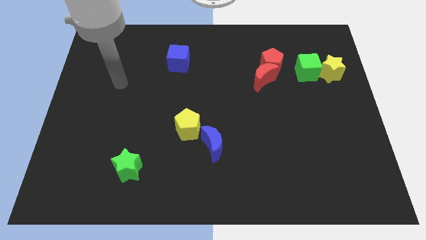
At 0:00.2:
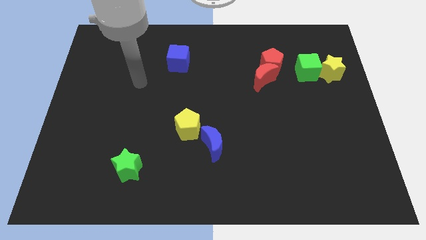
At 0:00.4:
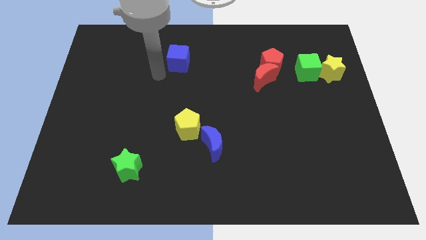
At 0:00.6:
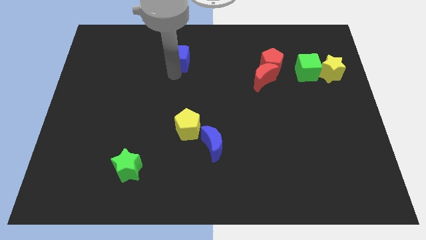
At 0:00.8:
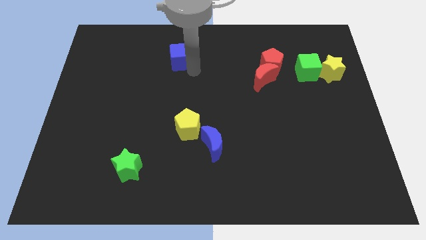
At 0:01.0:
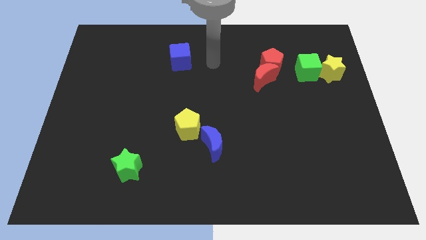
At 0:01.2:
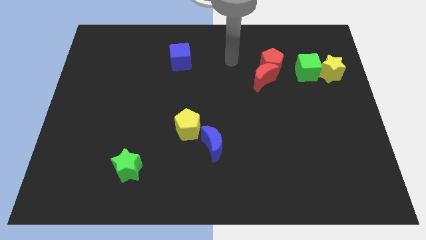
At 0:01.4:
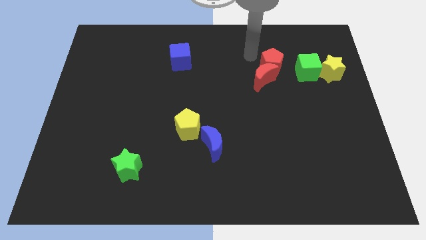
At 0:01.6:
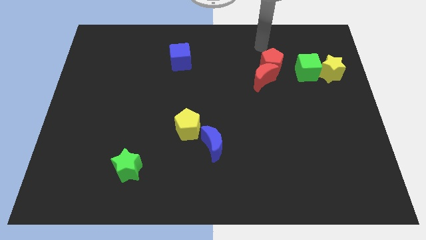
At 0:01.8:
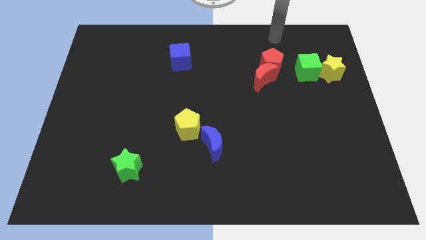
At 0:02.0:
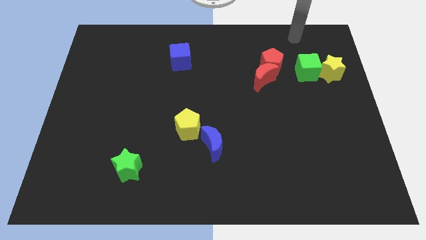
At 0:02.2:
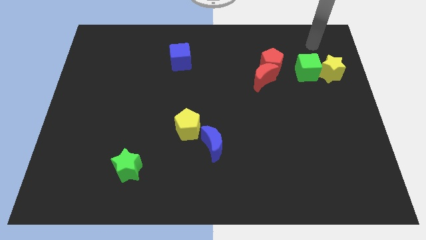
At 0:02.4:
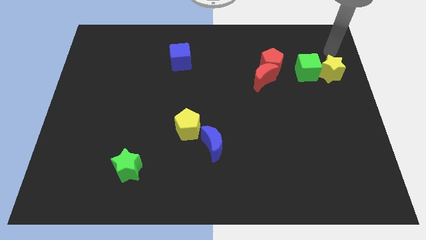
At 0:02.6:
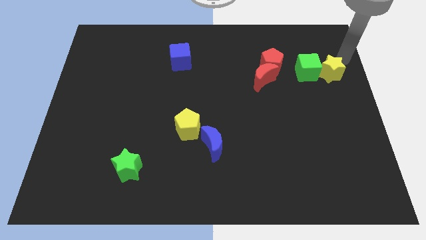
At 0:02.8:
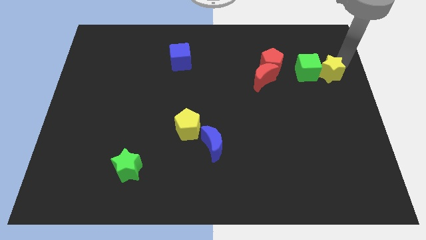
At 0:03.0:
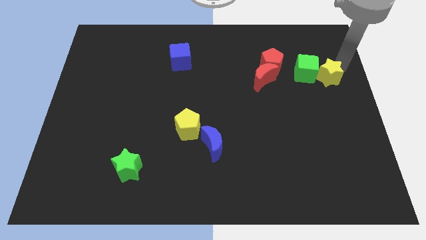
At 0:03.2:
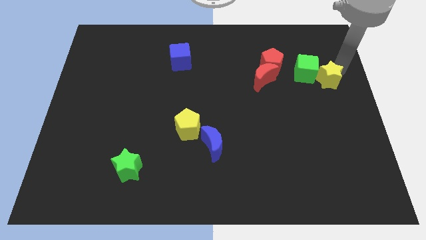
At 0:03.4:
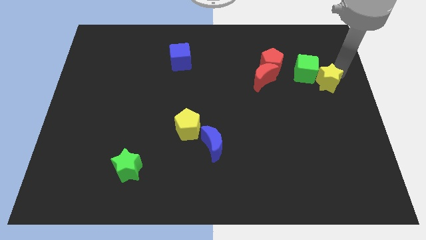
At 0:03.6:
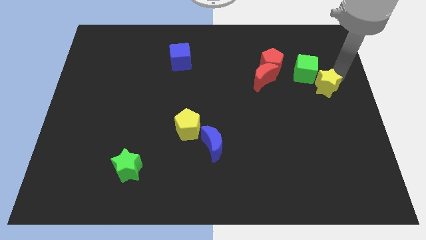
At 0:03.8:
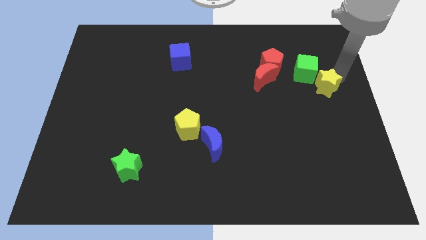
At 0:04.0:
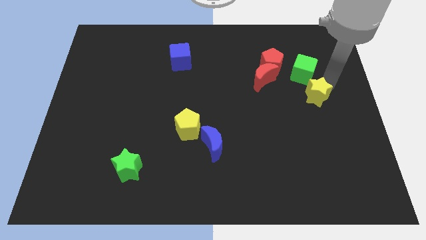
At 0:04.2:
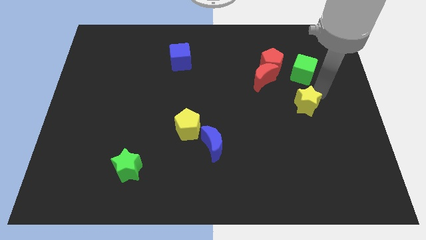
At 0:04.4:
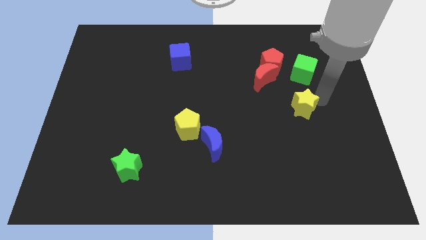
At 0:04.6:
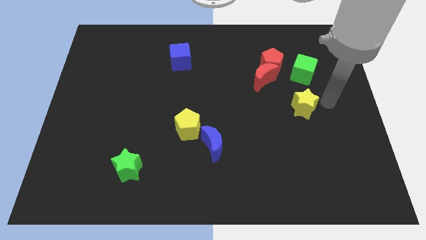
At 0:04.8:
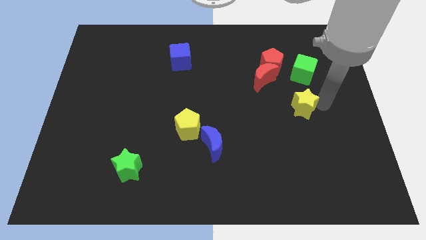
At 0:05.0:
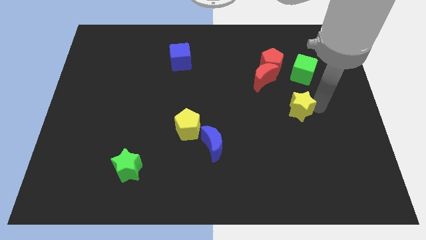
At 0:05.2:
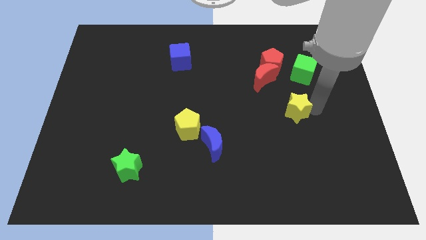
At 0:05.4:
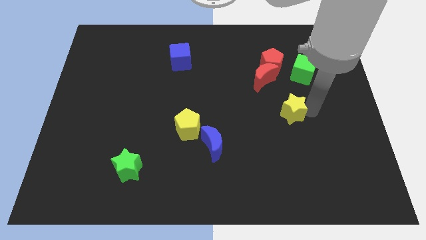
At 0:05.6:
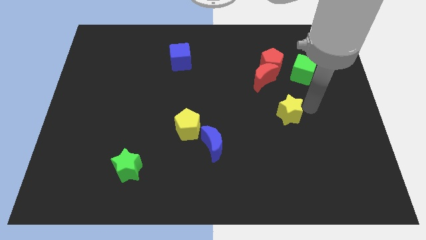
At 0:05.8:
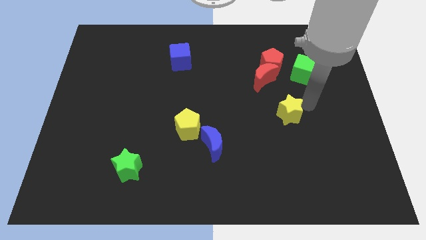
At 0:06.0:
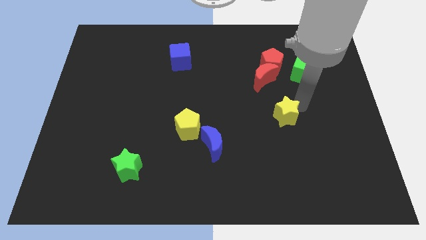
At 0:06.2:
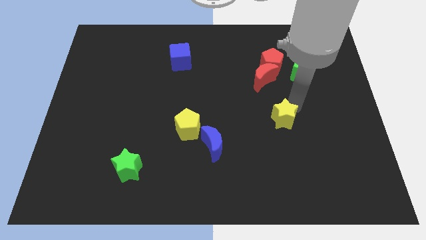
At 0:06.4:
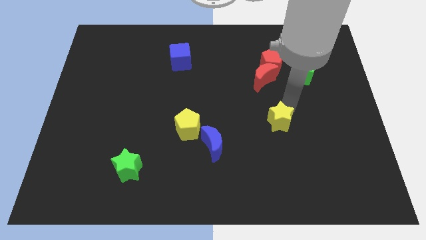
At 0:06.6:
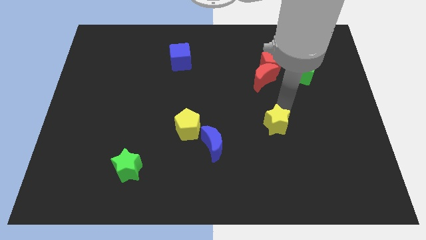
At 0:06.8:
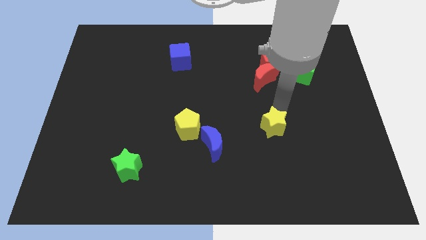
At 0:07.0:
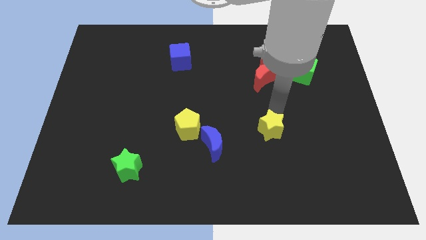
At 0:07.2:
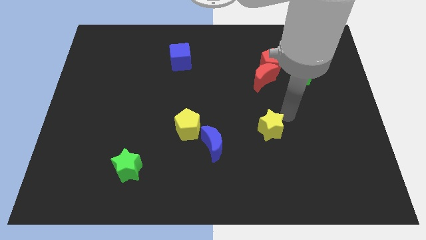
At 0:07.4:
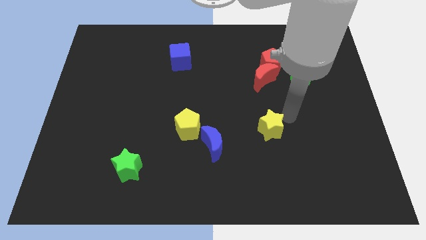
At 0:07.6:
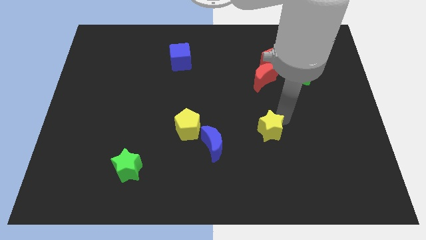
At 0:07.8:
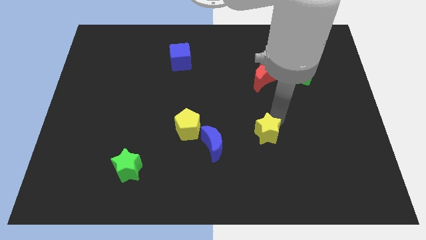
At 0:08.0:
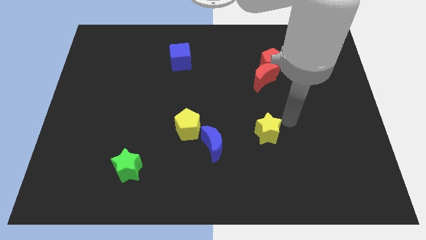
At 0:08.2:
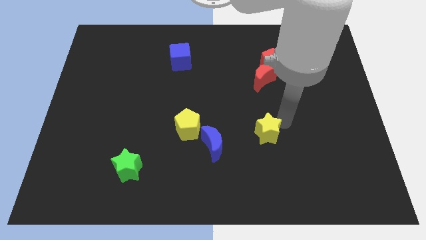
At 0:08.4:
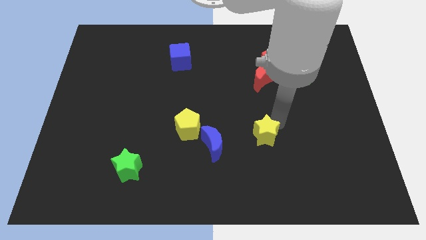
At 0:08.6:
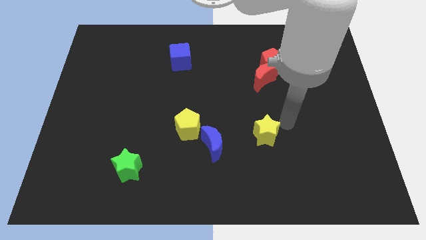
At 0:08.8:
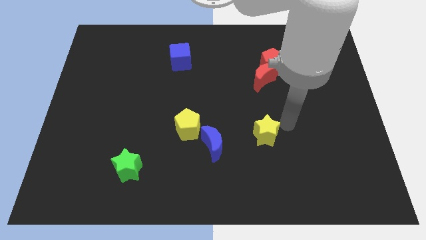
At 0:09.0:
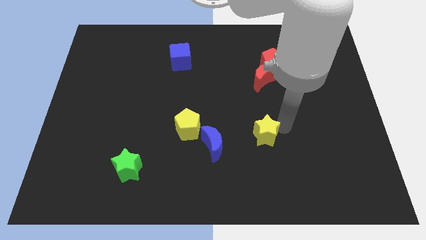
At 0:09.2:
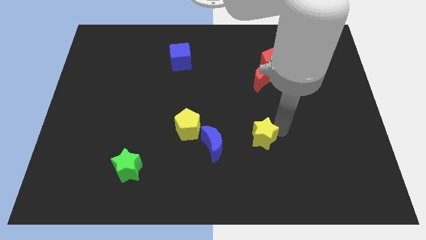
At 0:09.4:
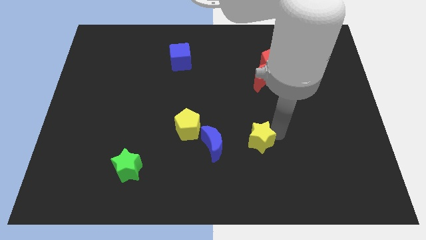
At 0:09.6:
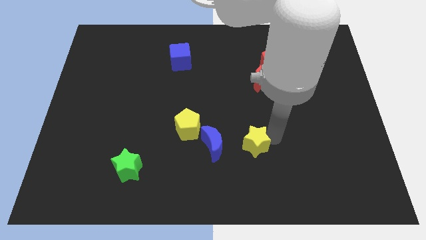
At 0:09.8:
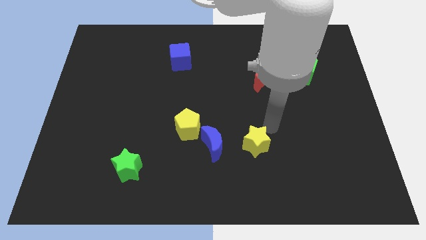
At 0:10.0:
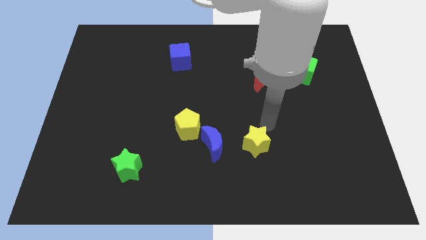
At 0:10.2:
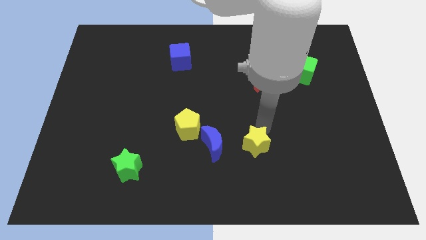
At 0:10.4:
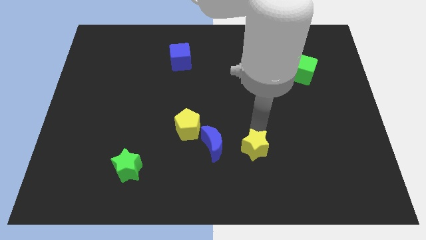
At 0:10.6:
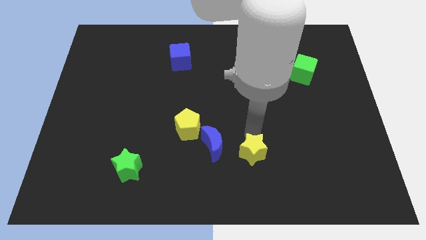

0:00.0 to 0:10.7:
put the yellow star to the bottom right side of the blue moon

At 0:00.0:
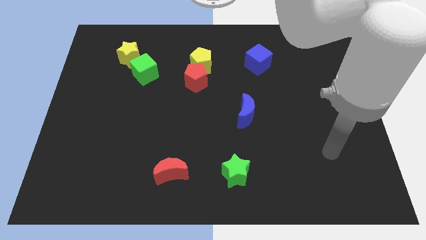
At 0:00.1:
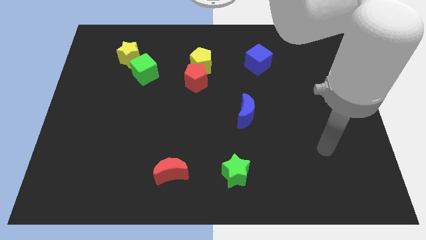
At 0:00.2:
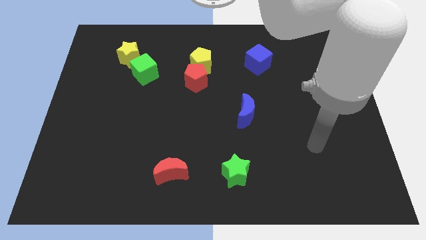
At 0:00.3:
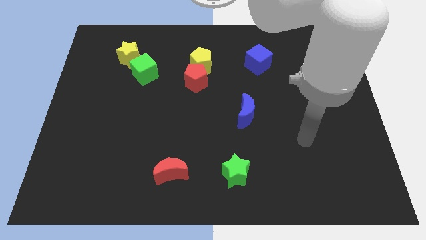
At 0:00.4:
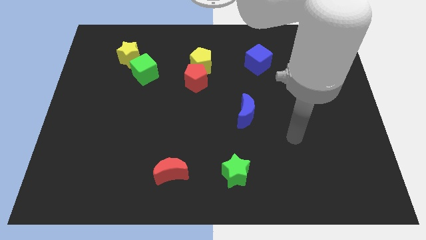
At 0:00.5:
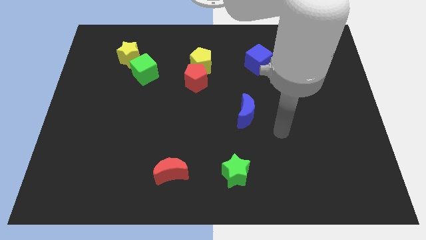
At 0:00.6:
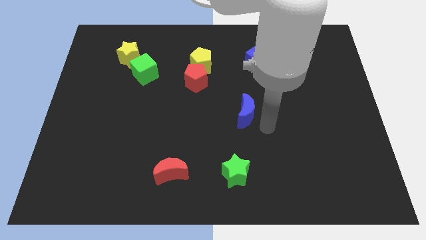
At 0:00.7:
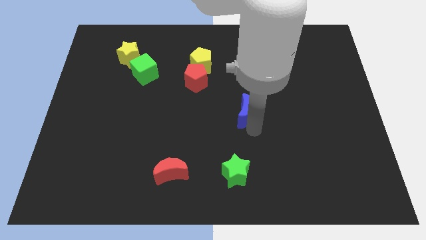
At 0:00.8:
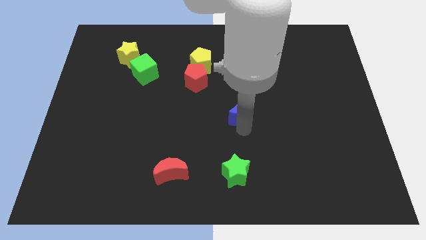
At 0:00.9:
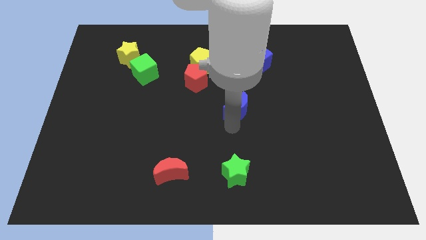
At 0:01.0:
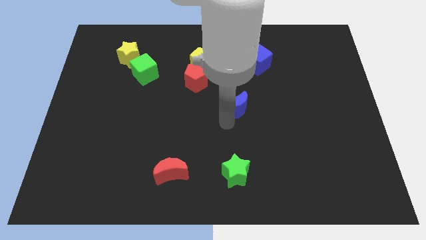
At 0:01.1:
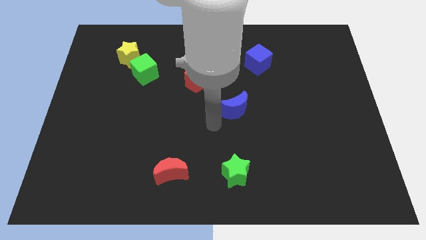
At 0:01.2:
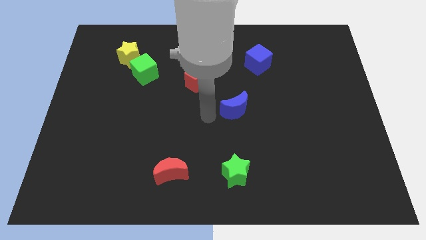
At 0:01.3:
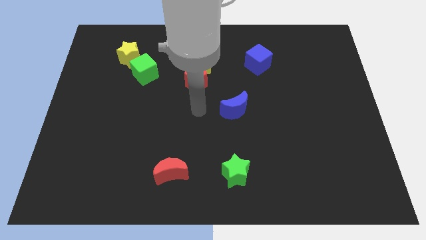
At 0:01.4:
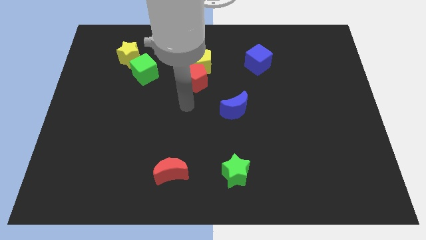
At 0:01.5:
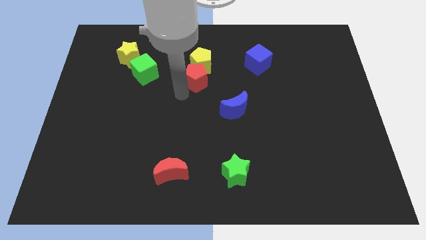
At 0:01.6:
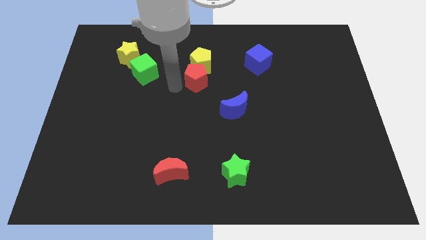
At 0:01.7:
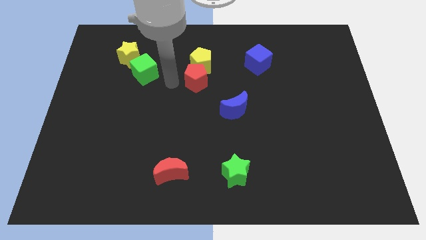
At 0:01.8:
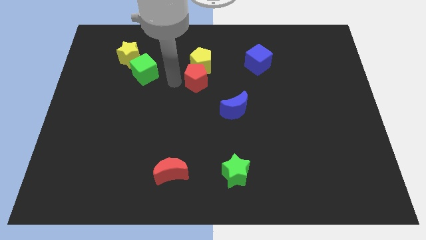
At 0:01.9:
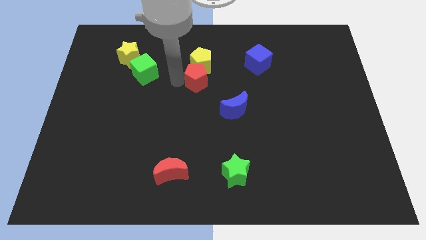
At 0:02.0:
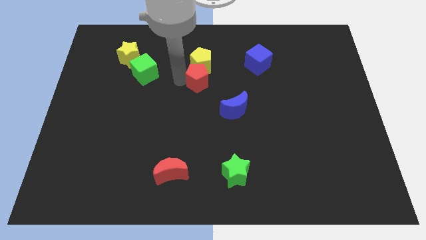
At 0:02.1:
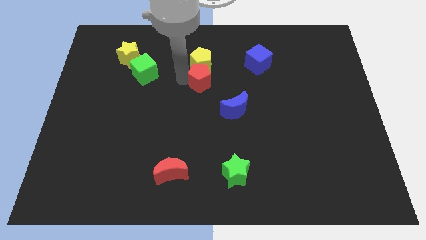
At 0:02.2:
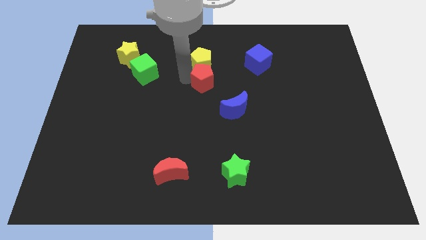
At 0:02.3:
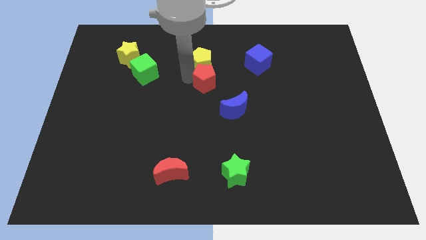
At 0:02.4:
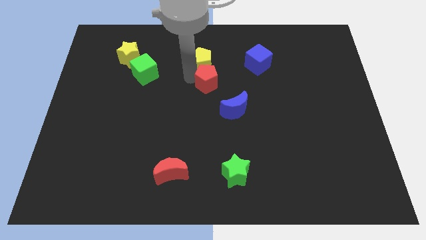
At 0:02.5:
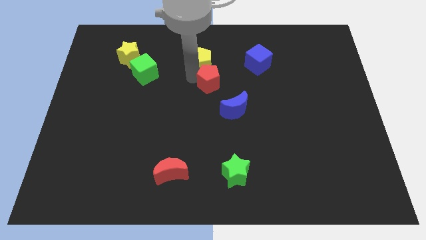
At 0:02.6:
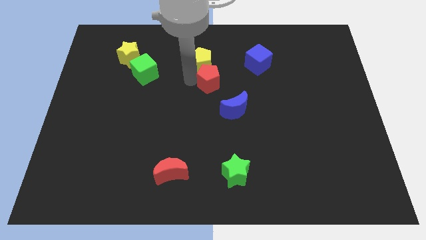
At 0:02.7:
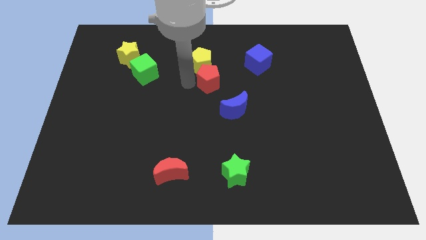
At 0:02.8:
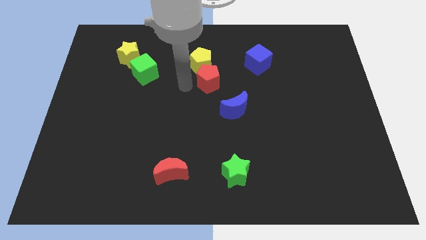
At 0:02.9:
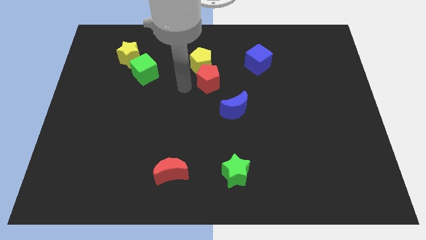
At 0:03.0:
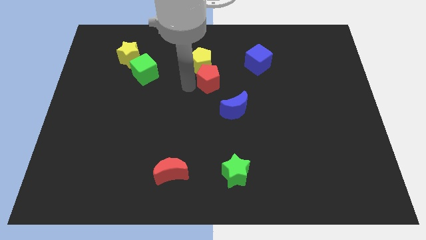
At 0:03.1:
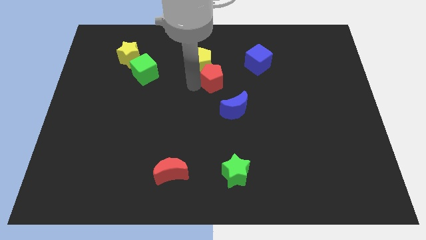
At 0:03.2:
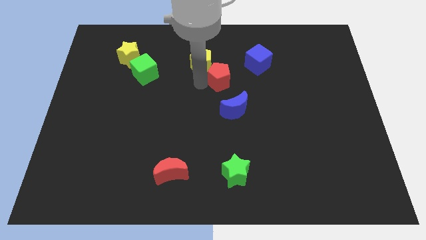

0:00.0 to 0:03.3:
slide the red pentagon diagonally down and to the left of the blue cube
